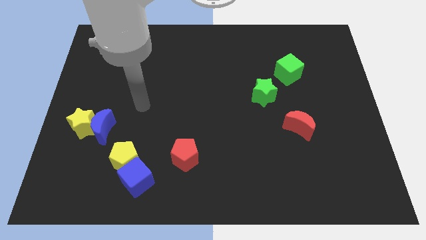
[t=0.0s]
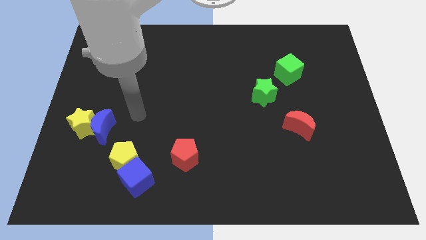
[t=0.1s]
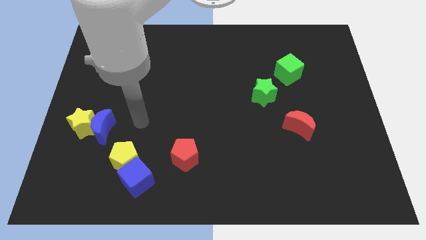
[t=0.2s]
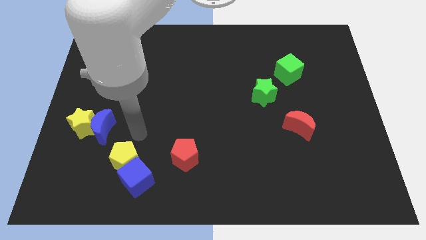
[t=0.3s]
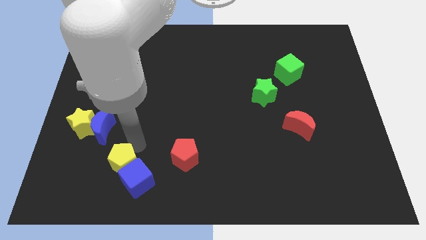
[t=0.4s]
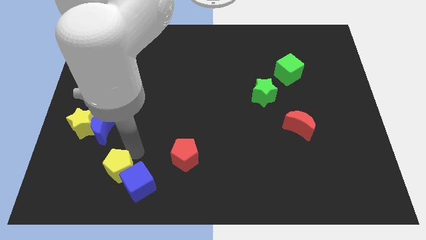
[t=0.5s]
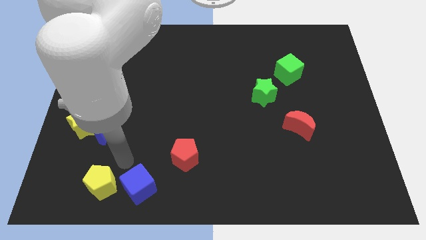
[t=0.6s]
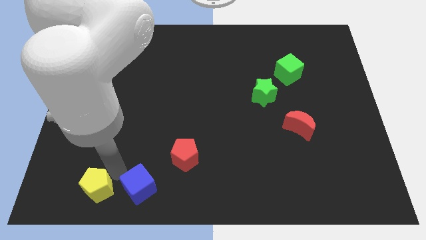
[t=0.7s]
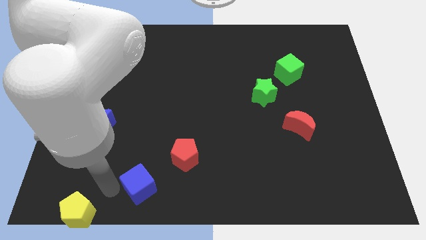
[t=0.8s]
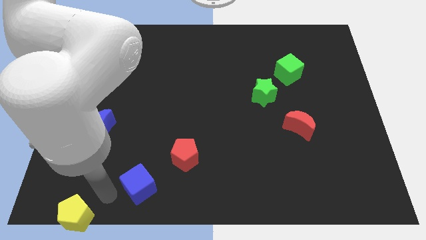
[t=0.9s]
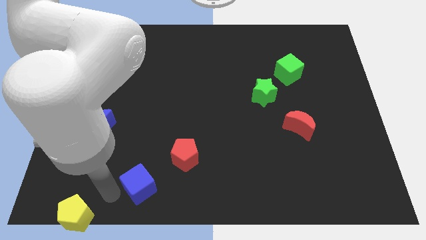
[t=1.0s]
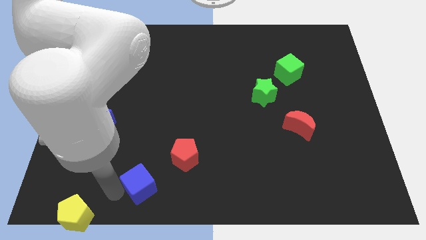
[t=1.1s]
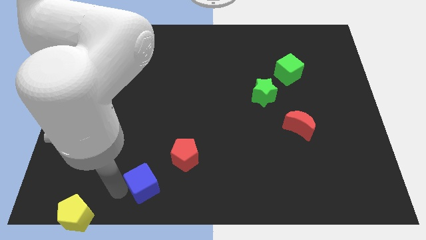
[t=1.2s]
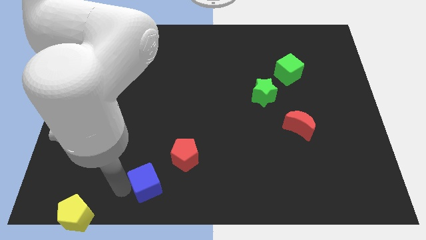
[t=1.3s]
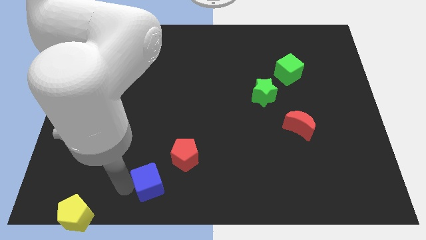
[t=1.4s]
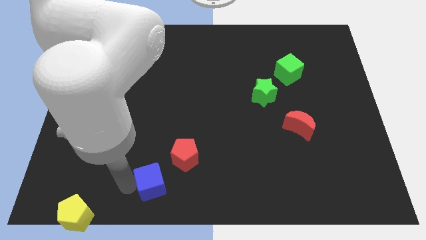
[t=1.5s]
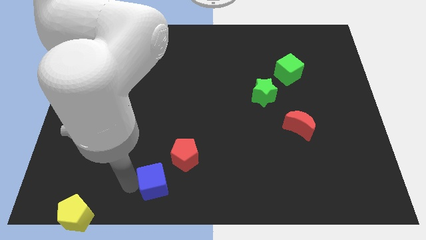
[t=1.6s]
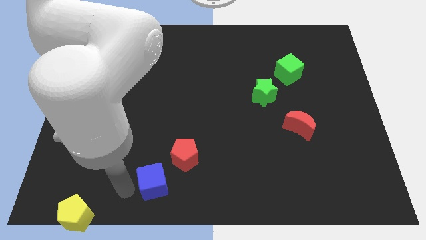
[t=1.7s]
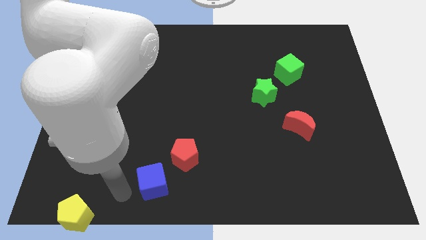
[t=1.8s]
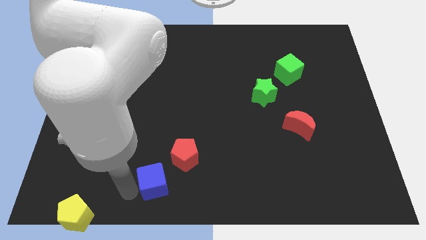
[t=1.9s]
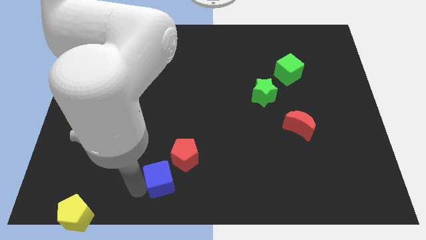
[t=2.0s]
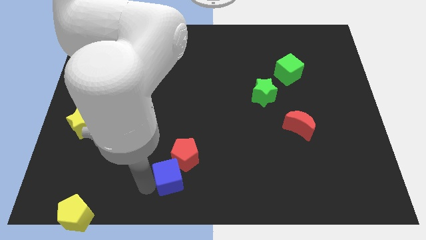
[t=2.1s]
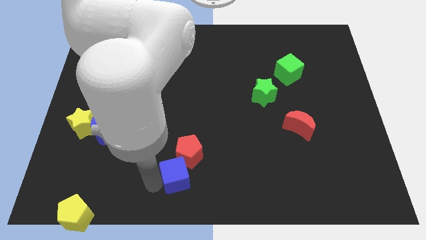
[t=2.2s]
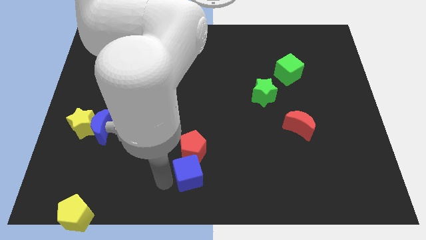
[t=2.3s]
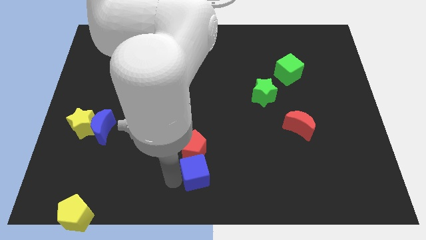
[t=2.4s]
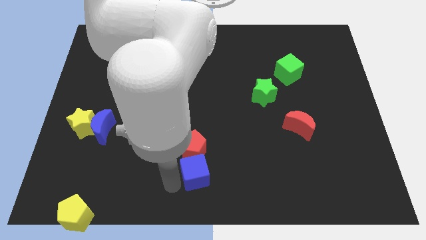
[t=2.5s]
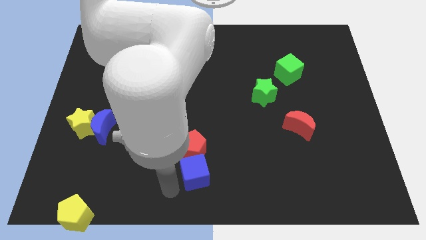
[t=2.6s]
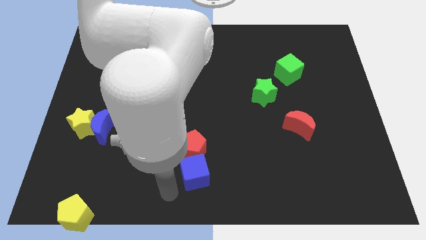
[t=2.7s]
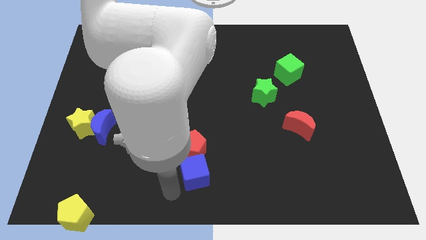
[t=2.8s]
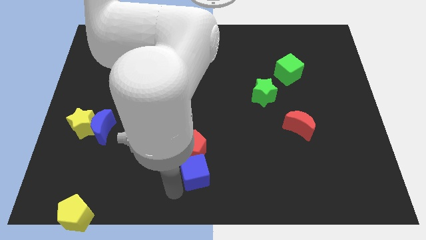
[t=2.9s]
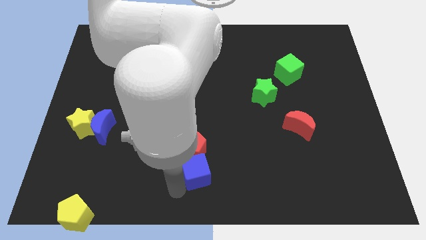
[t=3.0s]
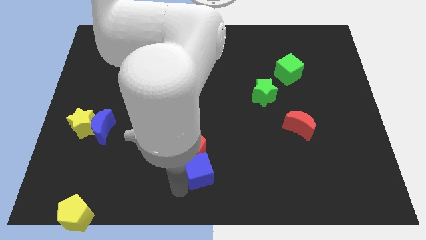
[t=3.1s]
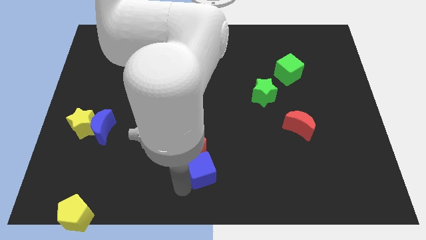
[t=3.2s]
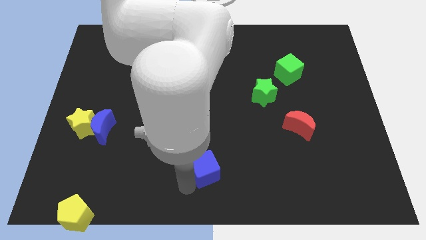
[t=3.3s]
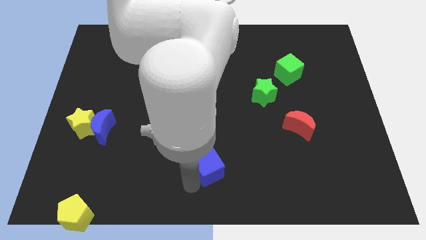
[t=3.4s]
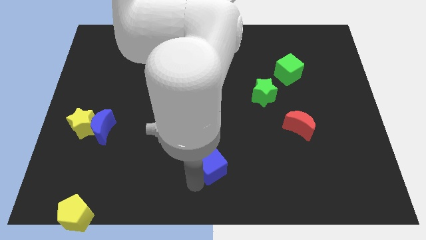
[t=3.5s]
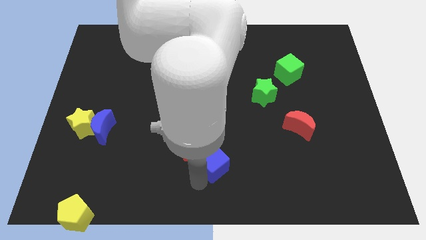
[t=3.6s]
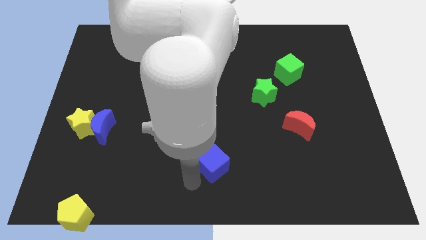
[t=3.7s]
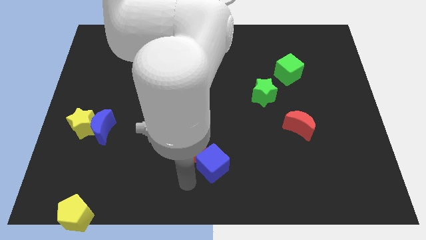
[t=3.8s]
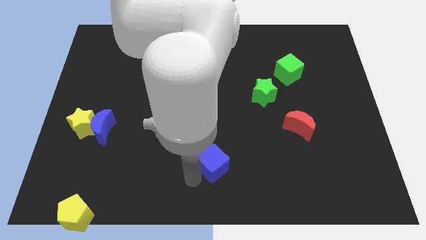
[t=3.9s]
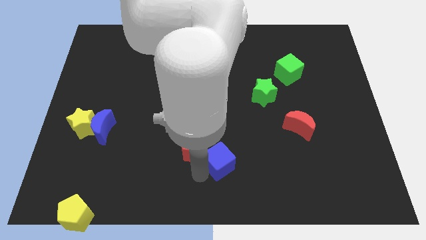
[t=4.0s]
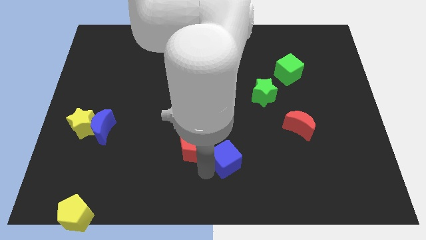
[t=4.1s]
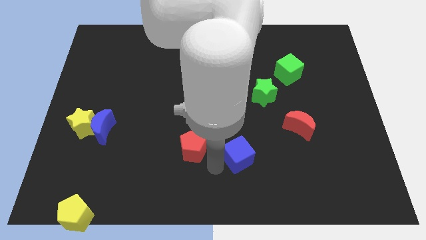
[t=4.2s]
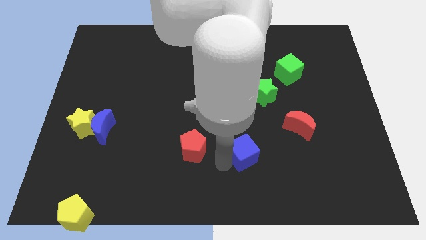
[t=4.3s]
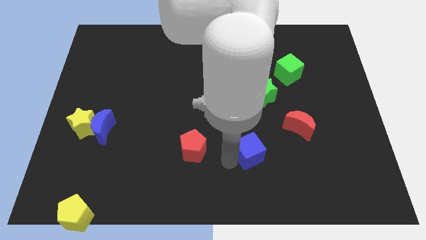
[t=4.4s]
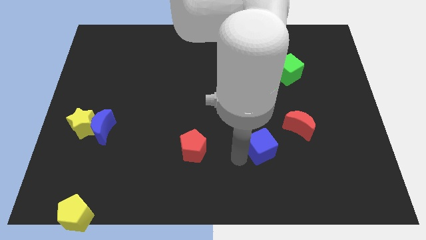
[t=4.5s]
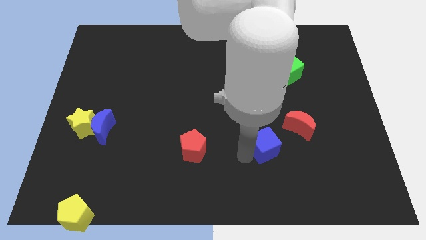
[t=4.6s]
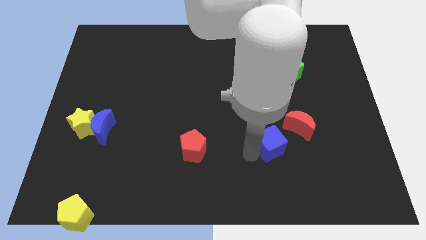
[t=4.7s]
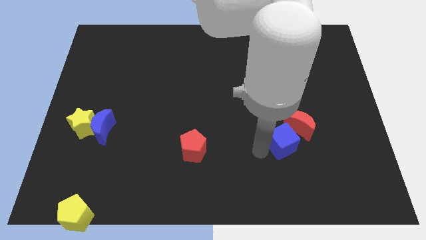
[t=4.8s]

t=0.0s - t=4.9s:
push the blue cube to the red moon

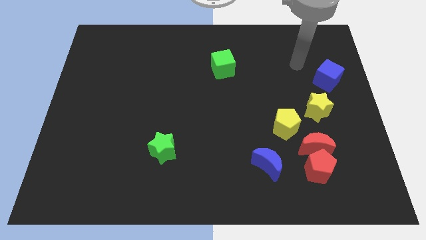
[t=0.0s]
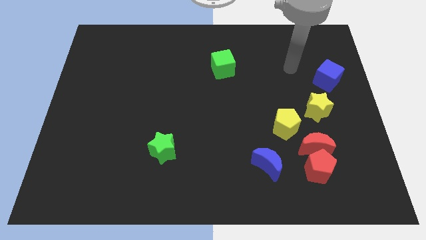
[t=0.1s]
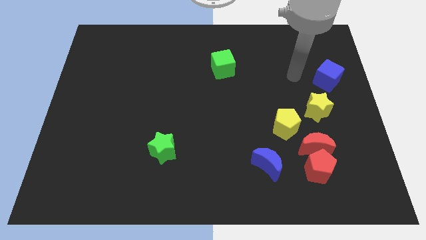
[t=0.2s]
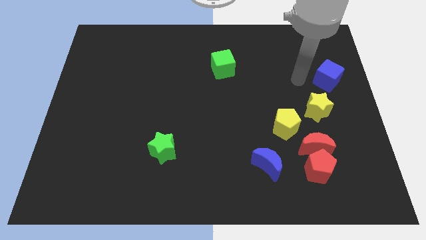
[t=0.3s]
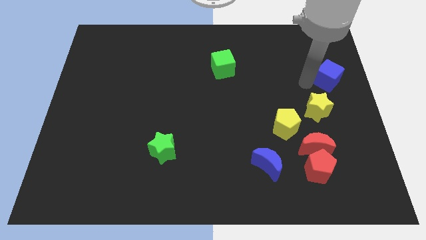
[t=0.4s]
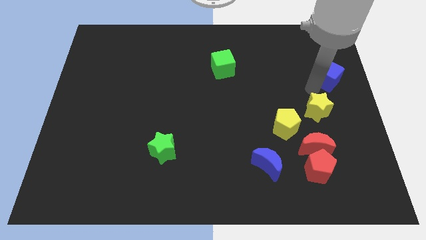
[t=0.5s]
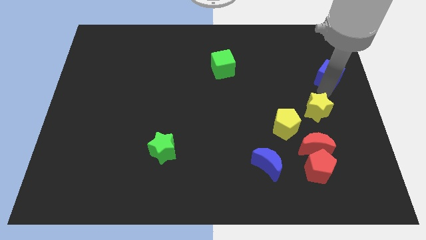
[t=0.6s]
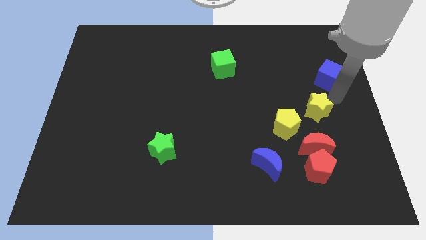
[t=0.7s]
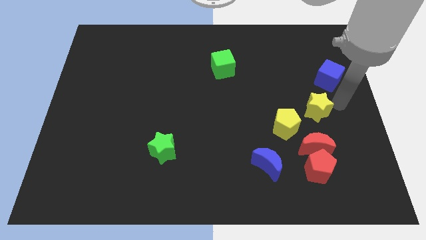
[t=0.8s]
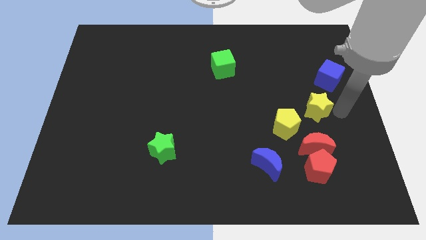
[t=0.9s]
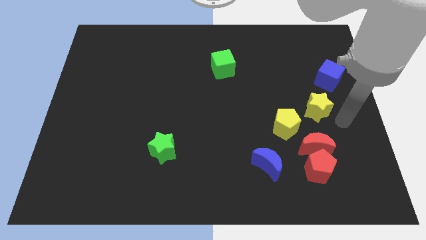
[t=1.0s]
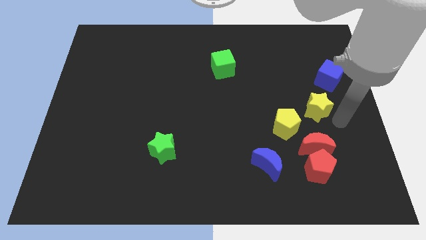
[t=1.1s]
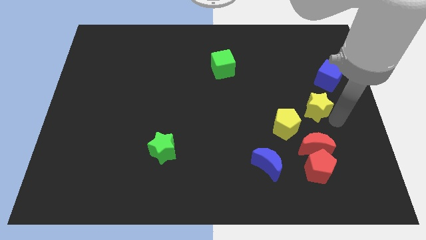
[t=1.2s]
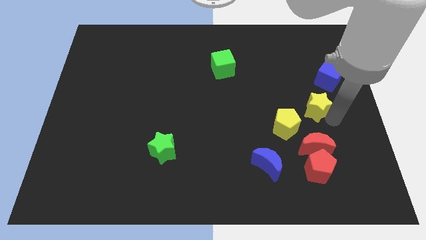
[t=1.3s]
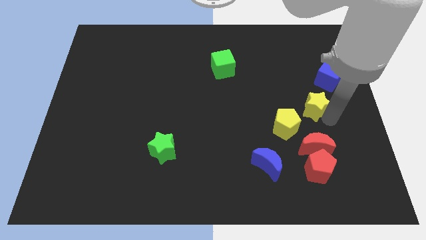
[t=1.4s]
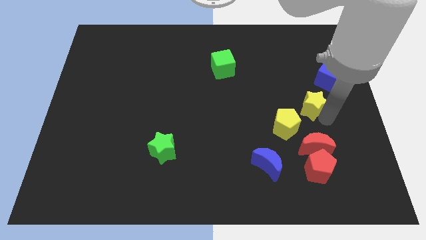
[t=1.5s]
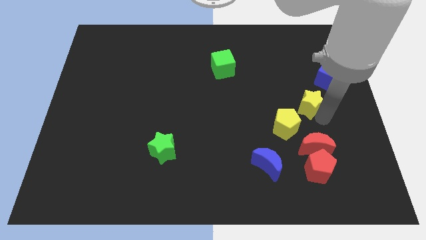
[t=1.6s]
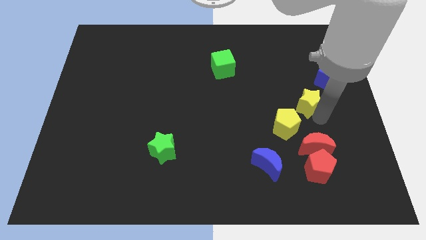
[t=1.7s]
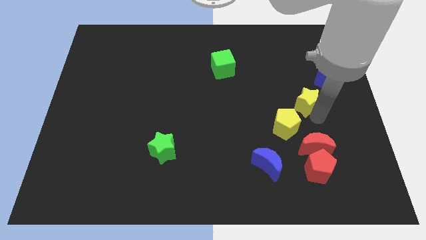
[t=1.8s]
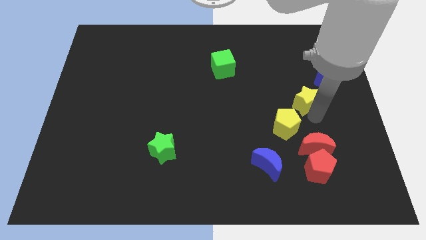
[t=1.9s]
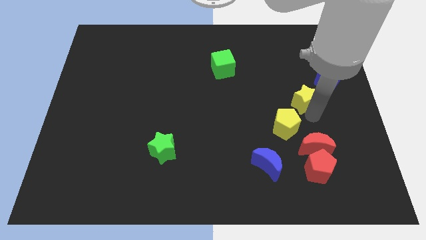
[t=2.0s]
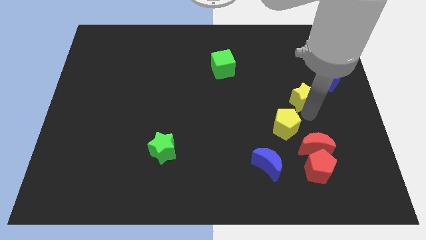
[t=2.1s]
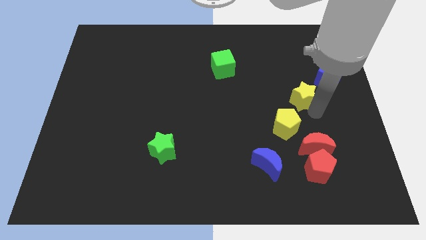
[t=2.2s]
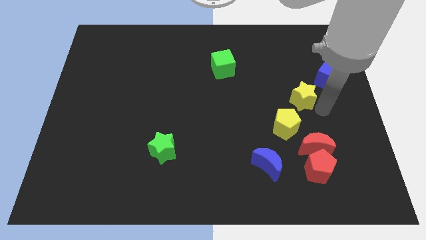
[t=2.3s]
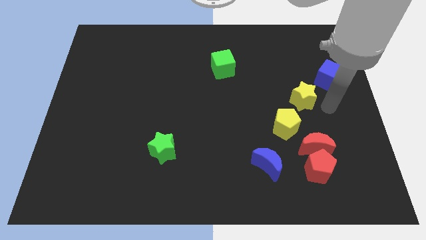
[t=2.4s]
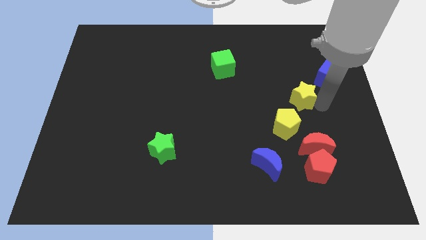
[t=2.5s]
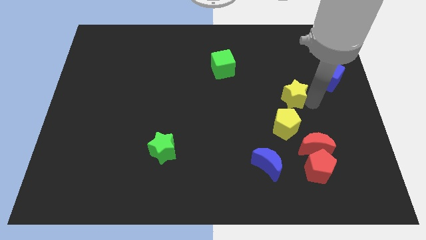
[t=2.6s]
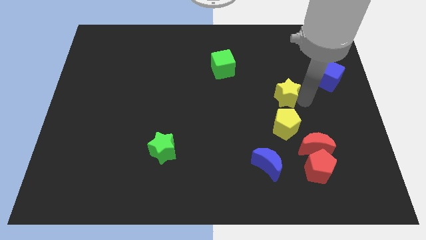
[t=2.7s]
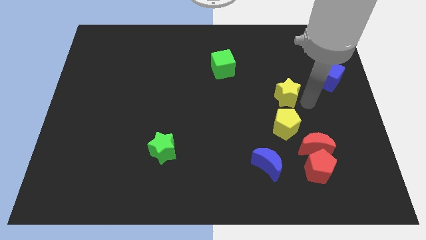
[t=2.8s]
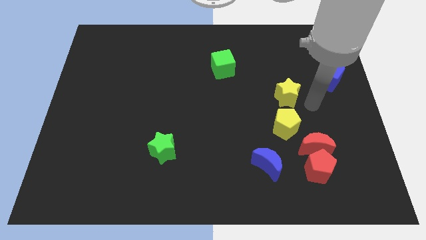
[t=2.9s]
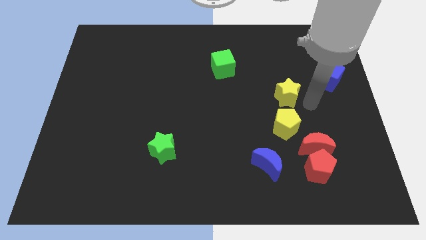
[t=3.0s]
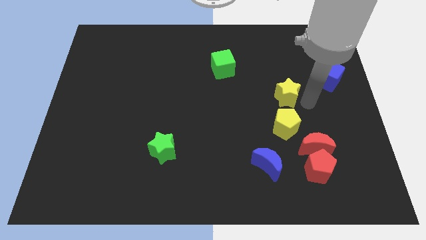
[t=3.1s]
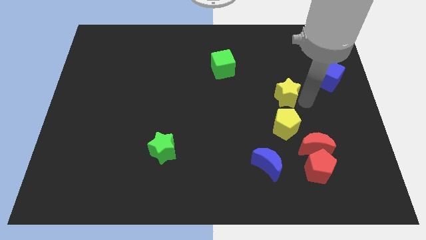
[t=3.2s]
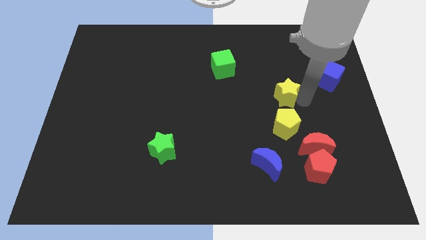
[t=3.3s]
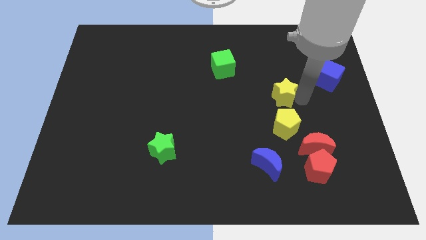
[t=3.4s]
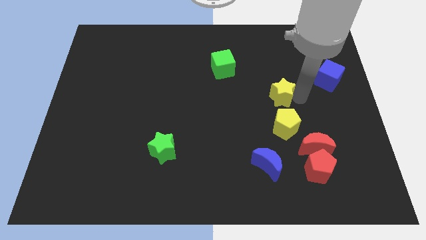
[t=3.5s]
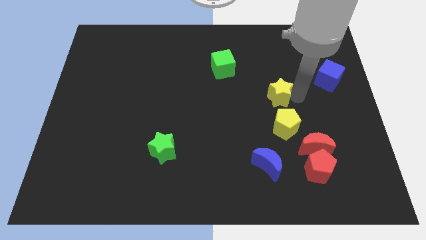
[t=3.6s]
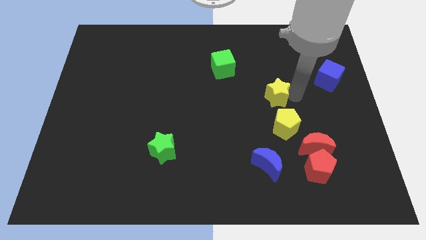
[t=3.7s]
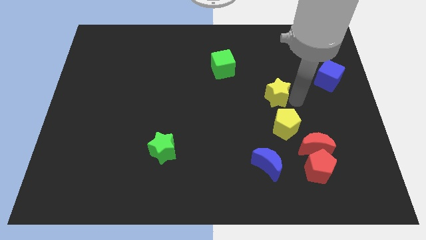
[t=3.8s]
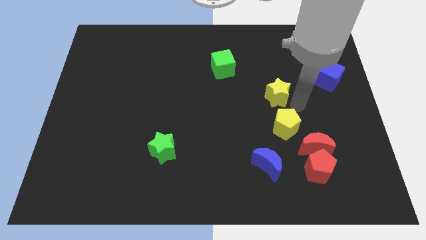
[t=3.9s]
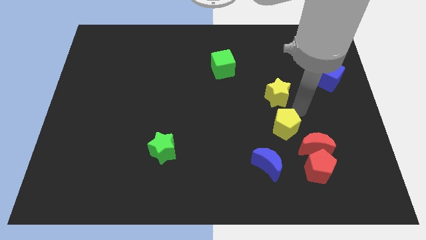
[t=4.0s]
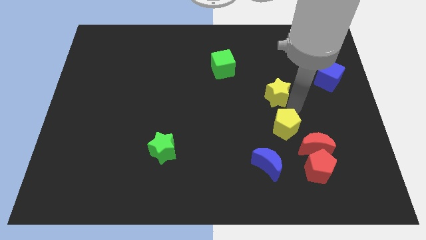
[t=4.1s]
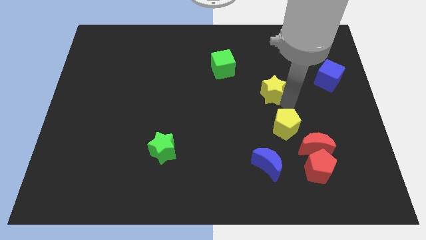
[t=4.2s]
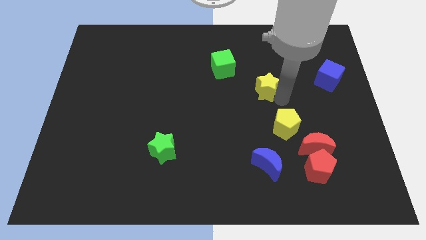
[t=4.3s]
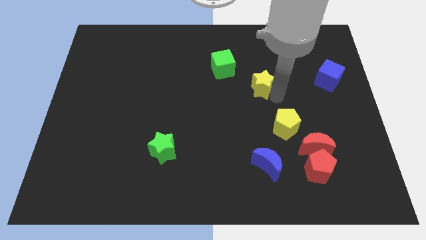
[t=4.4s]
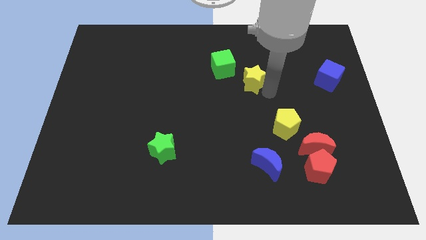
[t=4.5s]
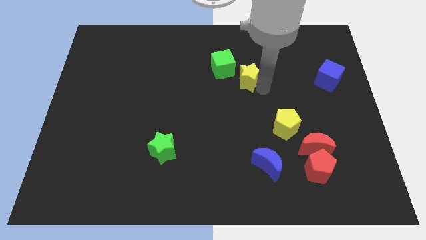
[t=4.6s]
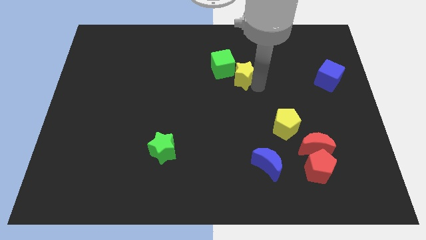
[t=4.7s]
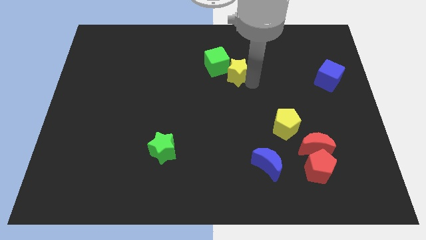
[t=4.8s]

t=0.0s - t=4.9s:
move the yellow star next to the green cube
